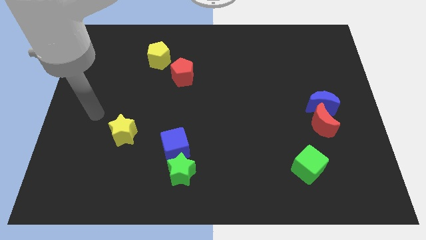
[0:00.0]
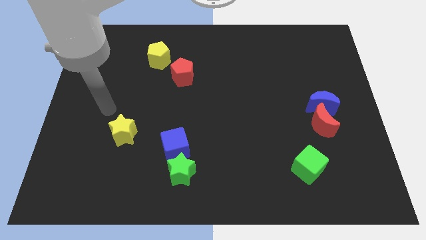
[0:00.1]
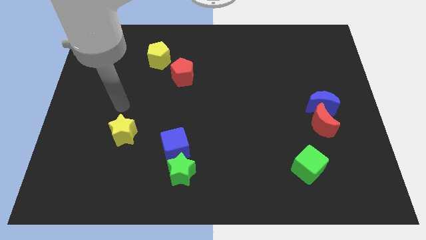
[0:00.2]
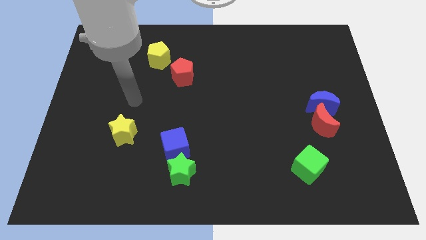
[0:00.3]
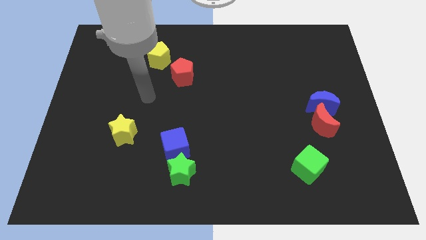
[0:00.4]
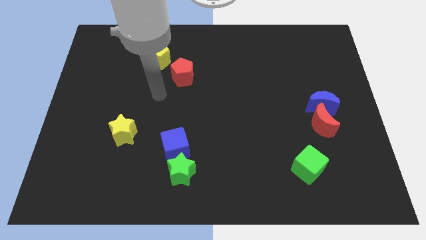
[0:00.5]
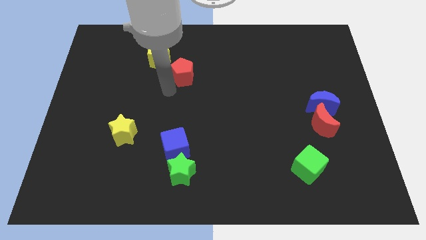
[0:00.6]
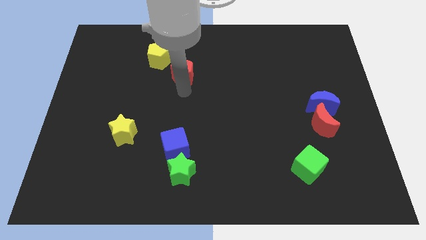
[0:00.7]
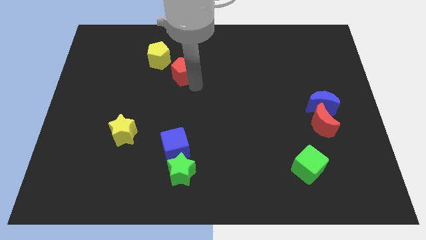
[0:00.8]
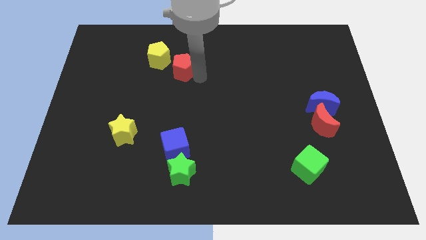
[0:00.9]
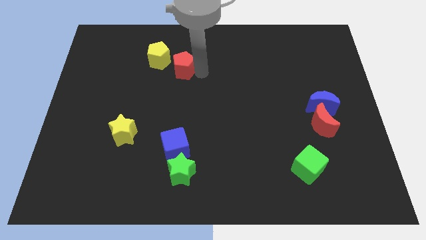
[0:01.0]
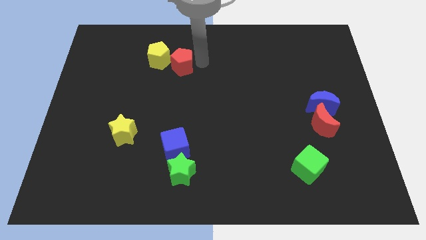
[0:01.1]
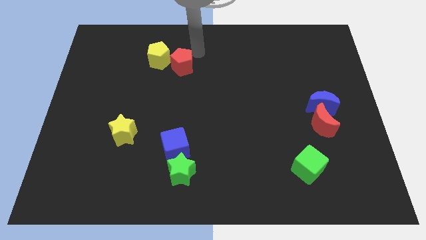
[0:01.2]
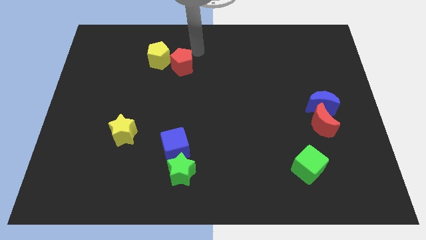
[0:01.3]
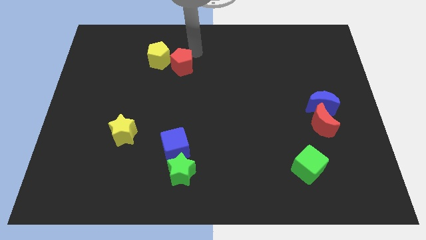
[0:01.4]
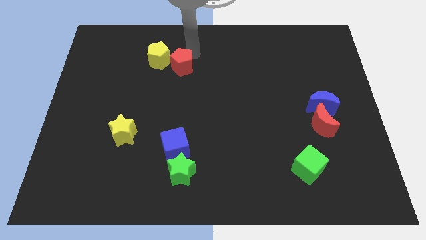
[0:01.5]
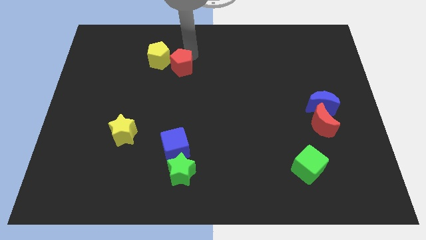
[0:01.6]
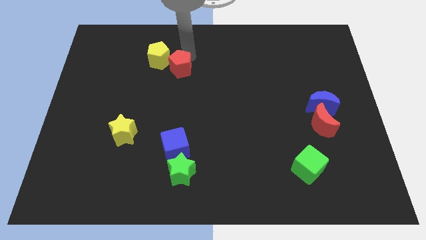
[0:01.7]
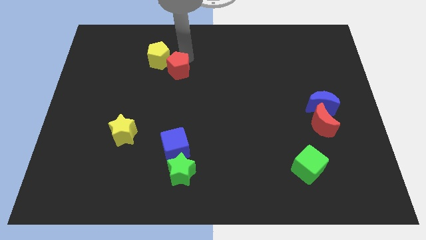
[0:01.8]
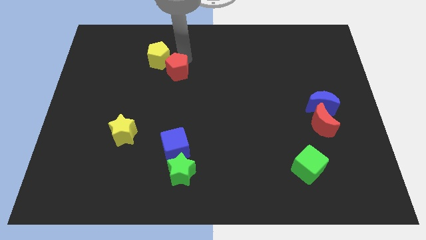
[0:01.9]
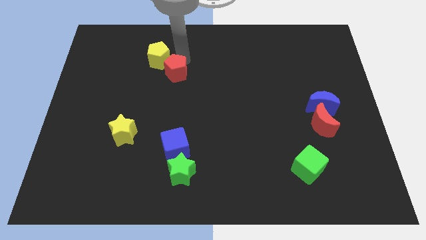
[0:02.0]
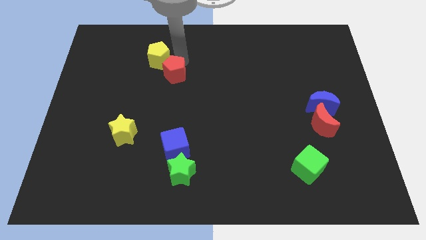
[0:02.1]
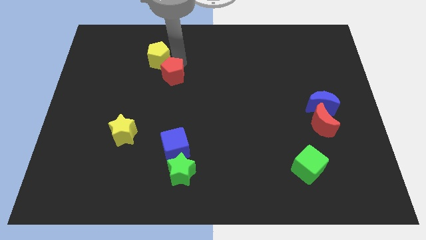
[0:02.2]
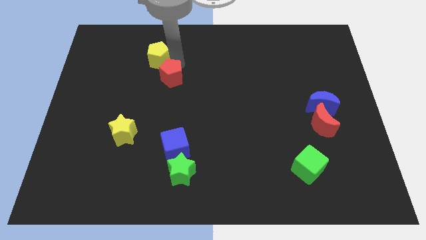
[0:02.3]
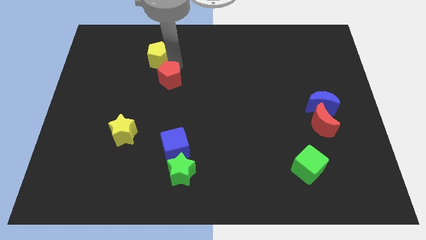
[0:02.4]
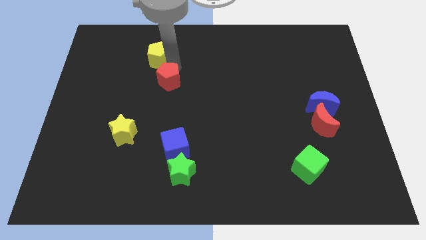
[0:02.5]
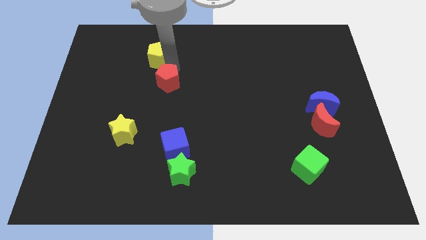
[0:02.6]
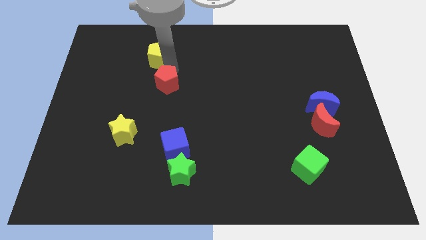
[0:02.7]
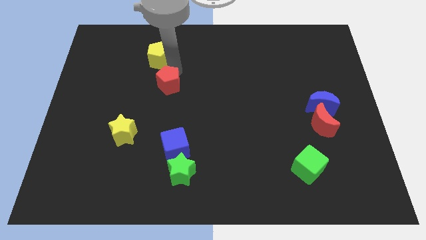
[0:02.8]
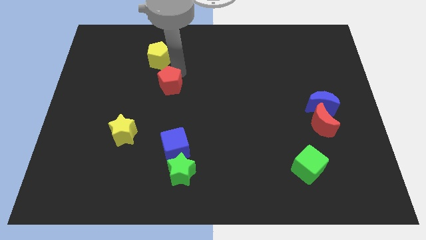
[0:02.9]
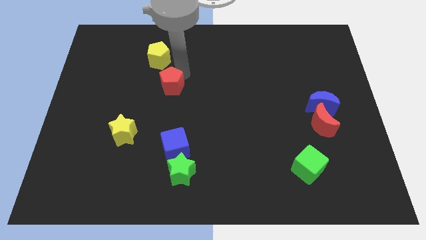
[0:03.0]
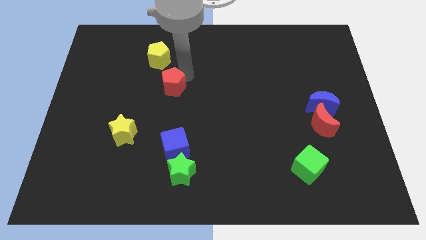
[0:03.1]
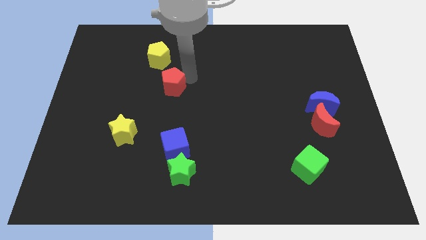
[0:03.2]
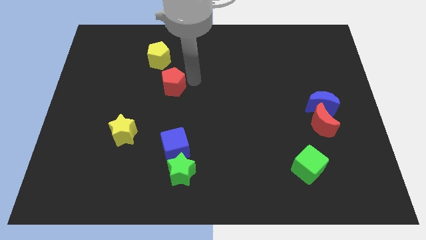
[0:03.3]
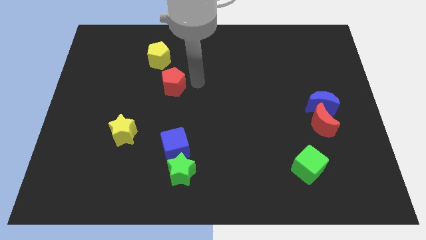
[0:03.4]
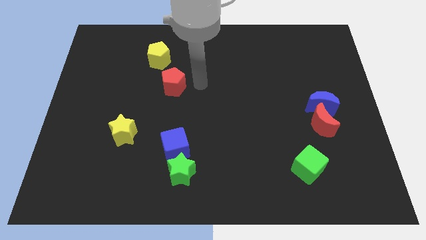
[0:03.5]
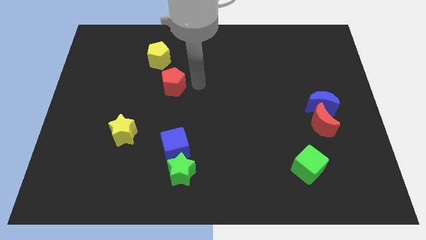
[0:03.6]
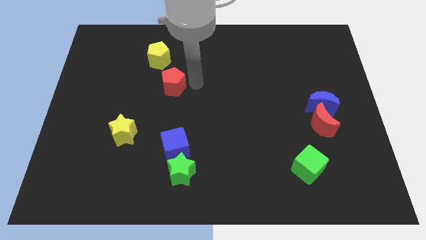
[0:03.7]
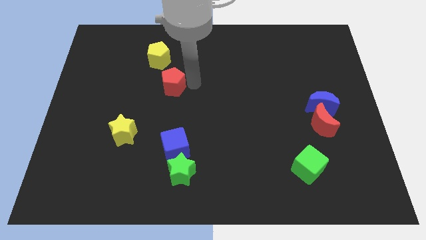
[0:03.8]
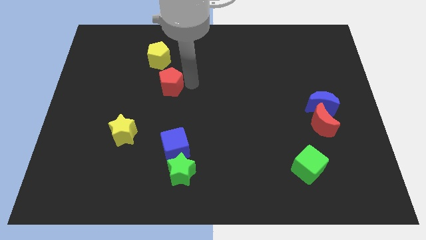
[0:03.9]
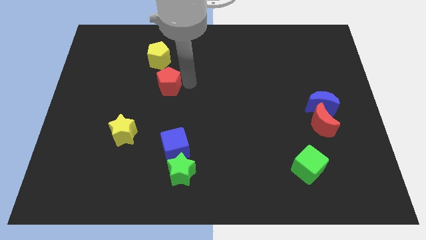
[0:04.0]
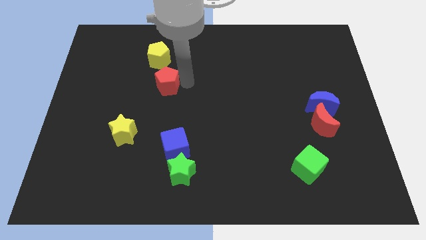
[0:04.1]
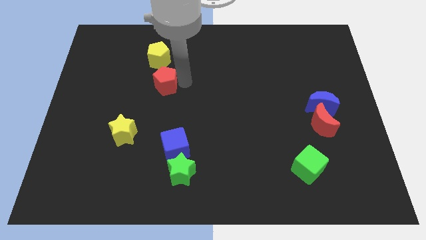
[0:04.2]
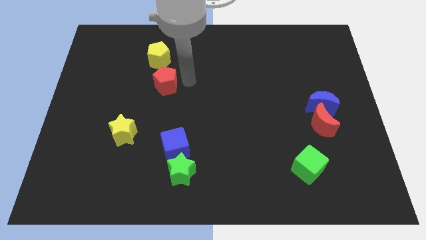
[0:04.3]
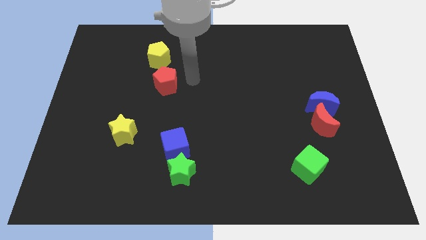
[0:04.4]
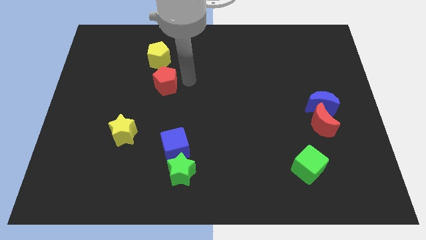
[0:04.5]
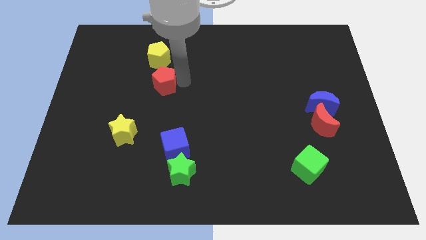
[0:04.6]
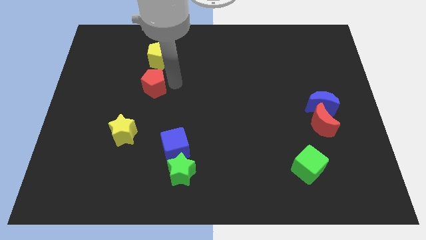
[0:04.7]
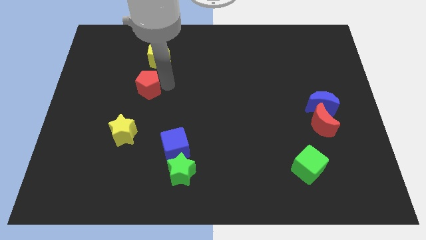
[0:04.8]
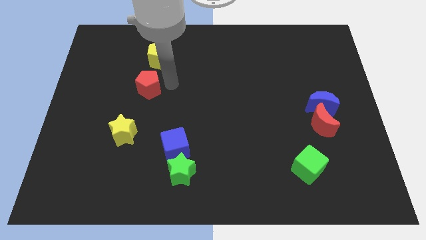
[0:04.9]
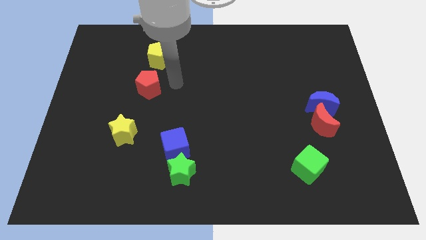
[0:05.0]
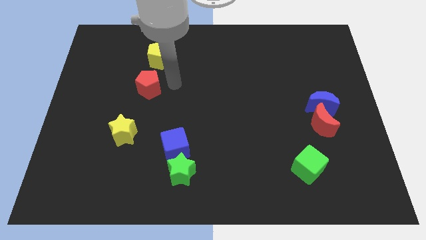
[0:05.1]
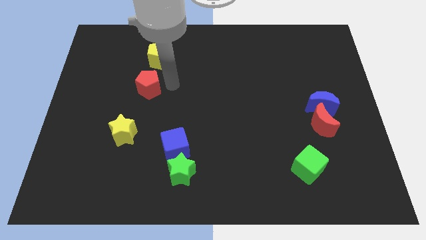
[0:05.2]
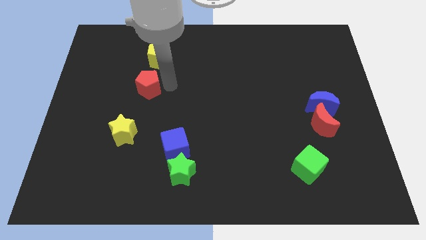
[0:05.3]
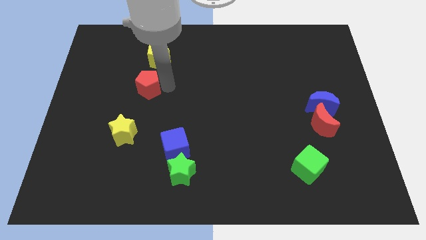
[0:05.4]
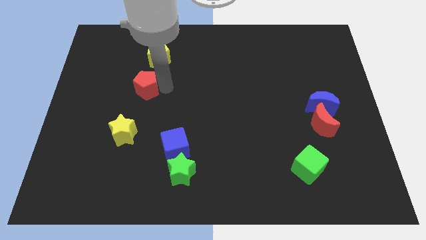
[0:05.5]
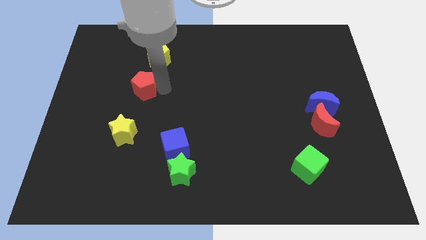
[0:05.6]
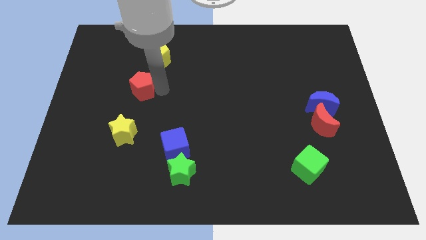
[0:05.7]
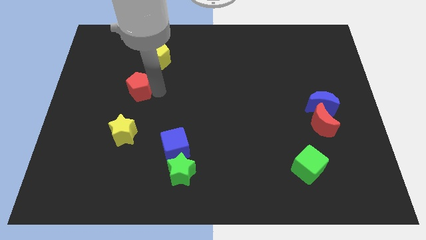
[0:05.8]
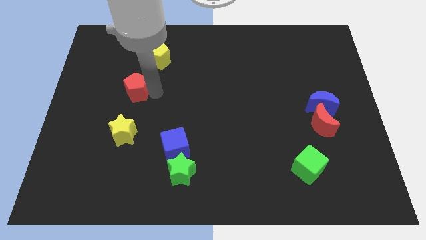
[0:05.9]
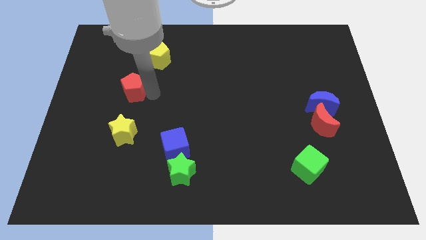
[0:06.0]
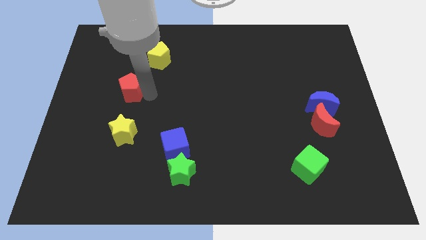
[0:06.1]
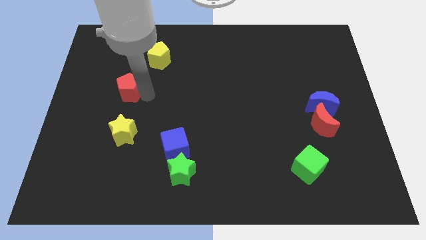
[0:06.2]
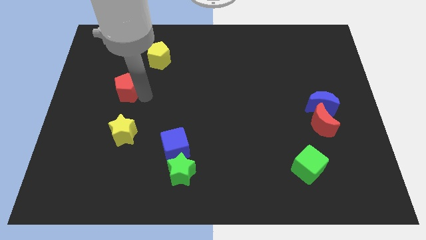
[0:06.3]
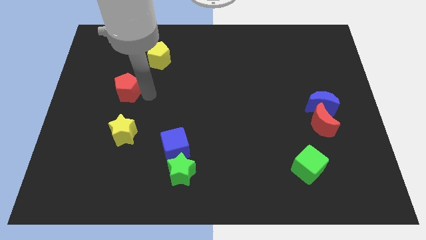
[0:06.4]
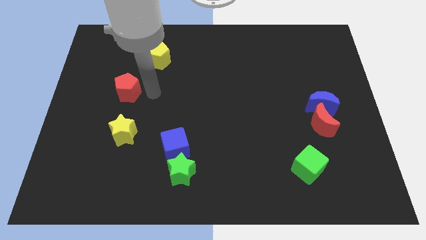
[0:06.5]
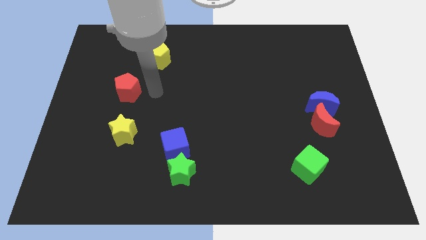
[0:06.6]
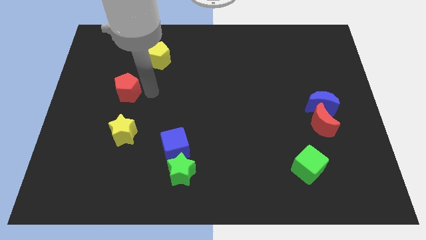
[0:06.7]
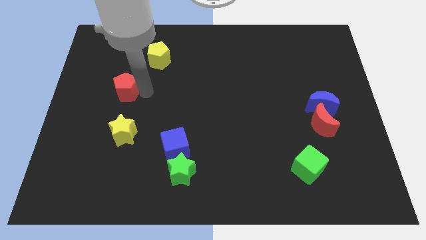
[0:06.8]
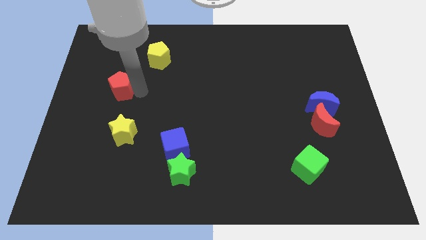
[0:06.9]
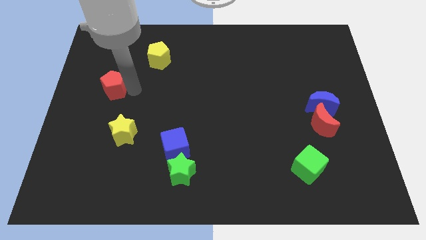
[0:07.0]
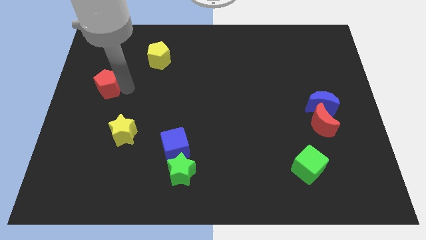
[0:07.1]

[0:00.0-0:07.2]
slide the red pentagon to the center left
